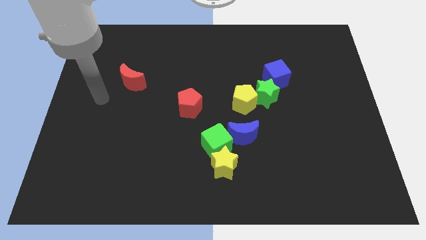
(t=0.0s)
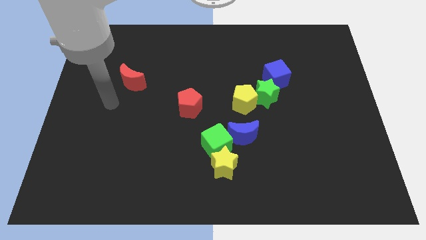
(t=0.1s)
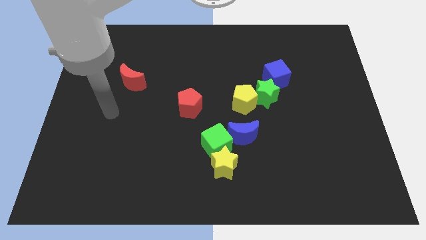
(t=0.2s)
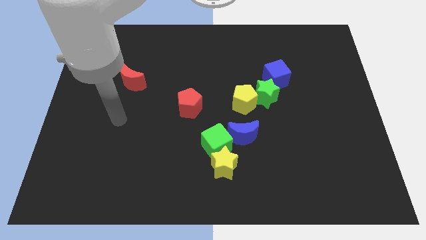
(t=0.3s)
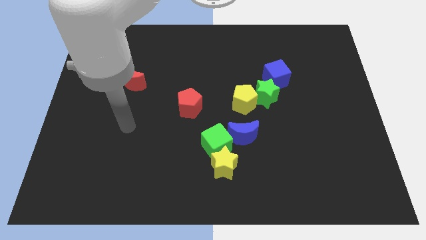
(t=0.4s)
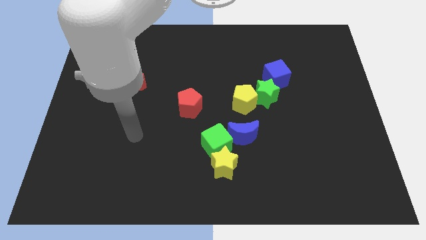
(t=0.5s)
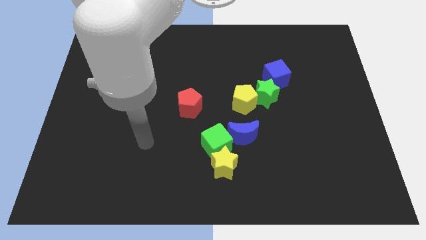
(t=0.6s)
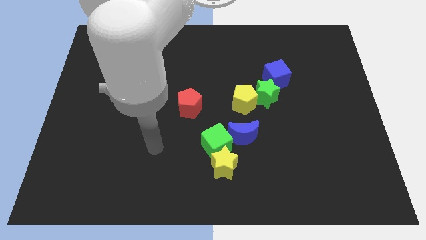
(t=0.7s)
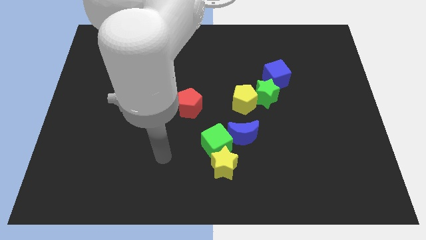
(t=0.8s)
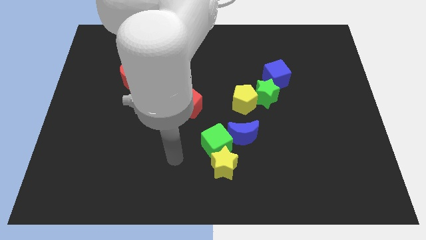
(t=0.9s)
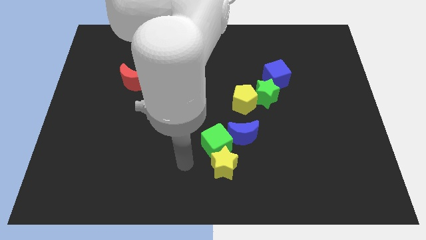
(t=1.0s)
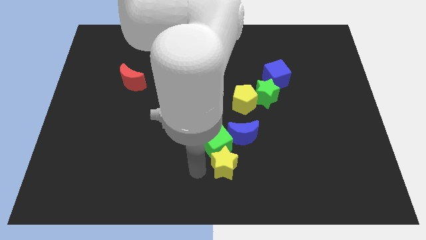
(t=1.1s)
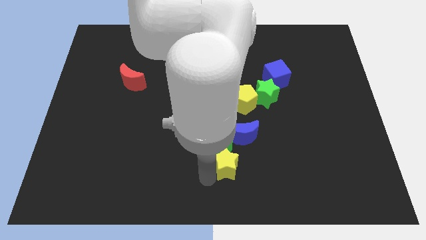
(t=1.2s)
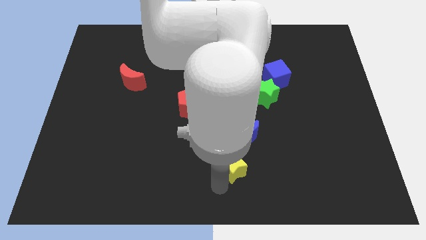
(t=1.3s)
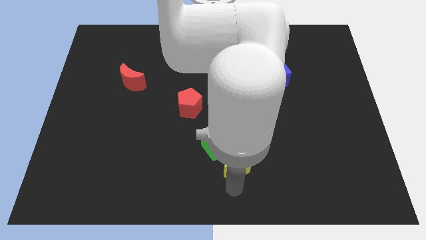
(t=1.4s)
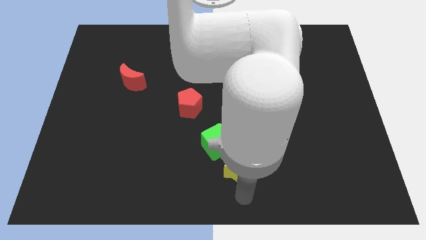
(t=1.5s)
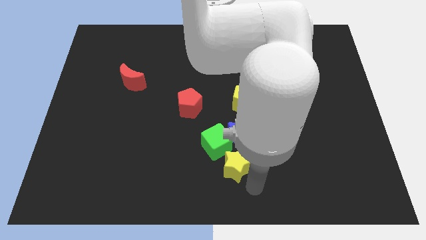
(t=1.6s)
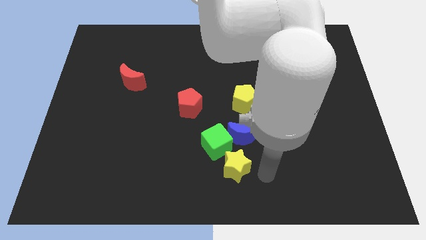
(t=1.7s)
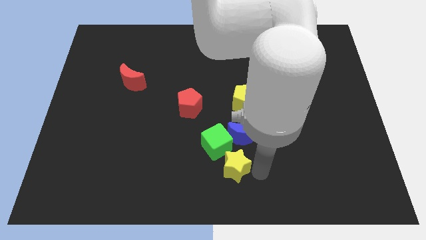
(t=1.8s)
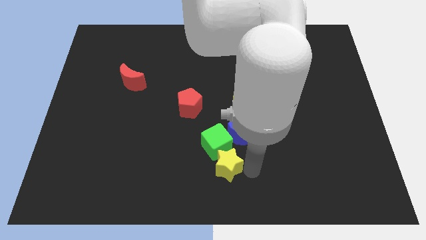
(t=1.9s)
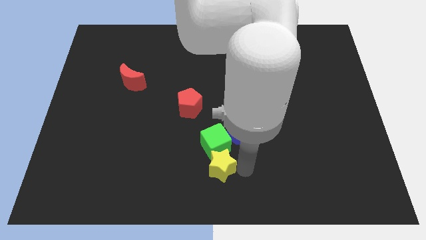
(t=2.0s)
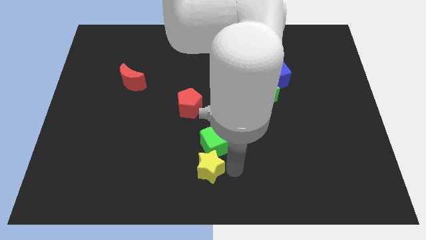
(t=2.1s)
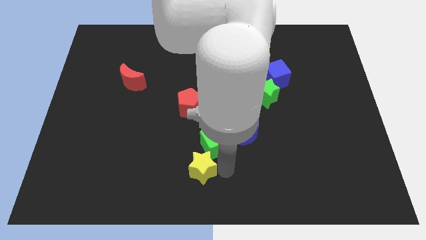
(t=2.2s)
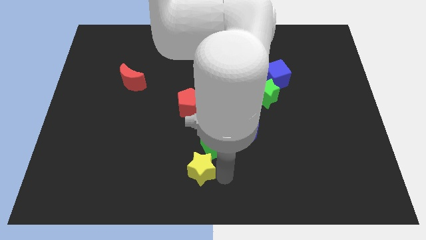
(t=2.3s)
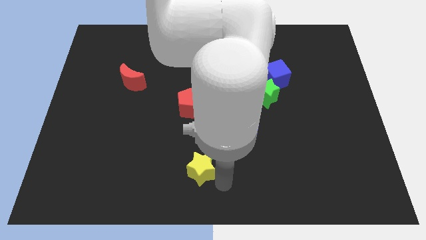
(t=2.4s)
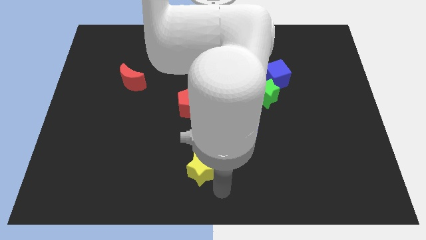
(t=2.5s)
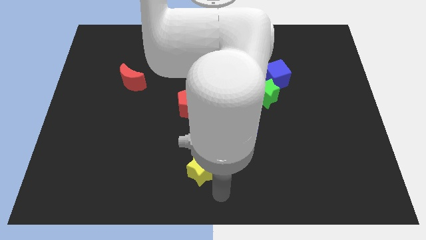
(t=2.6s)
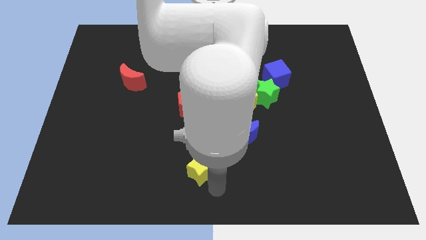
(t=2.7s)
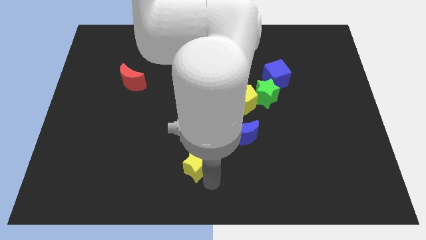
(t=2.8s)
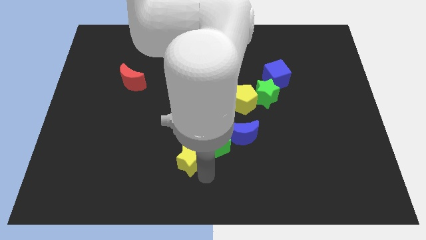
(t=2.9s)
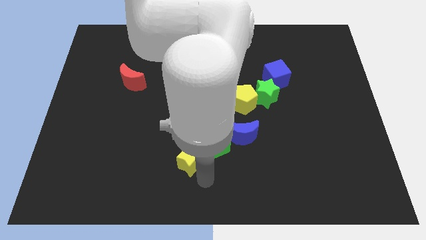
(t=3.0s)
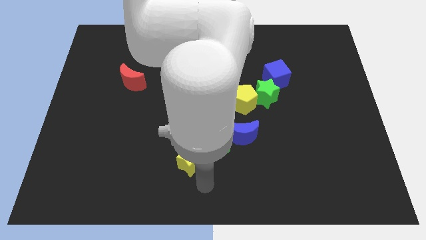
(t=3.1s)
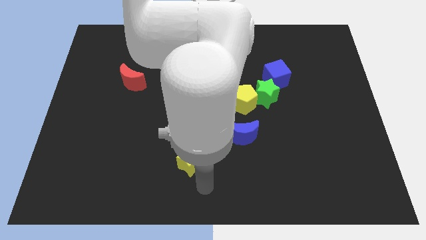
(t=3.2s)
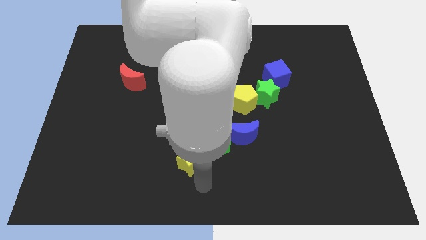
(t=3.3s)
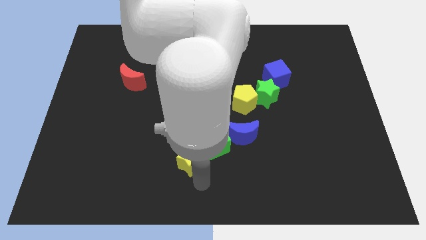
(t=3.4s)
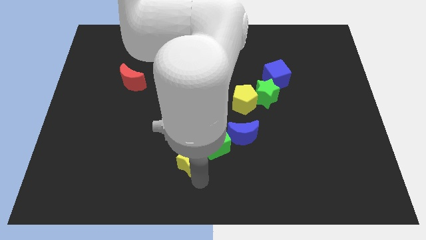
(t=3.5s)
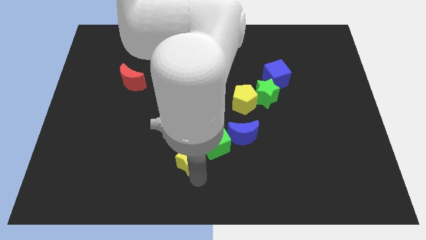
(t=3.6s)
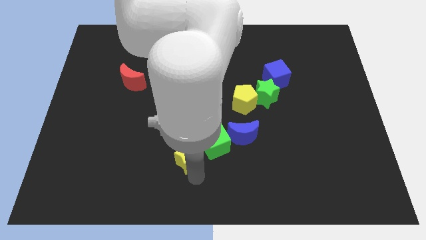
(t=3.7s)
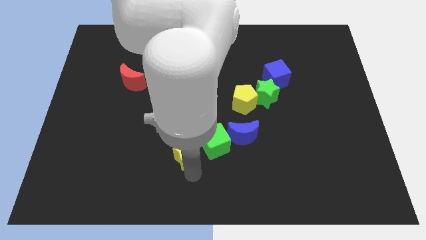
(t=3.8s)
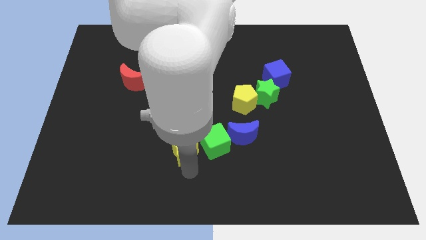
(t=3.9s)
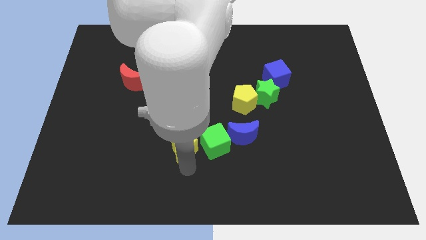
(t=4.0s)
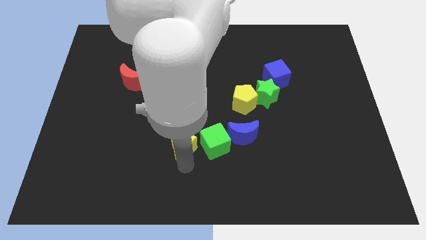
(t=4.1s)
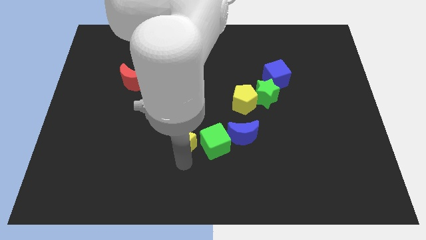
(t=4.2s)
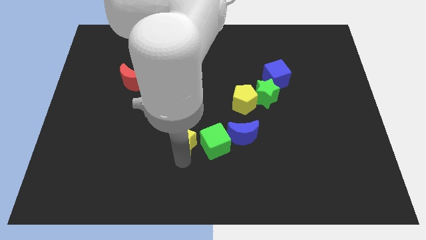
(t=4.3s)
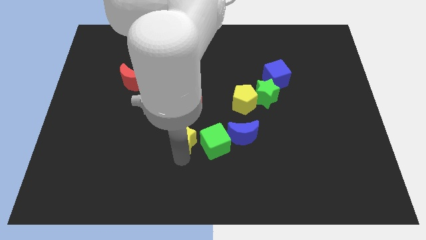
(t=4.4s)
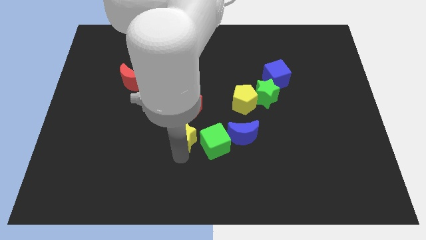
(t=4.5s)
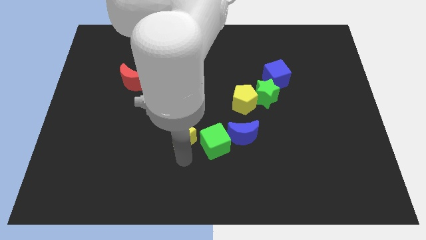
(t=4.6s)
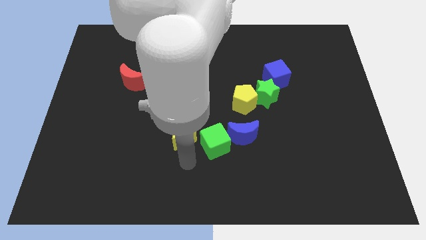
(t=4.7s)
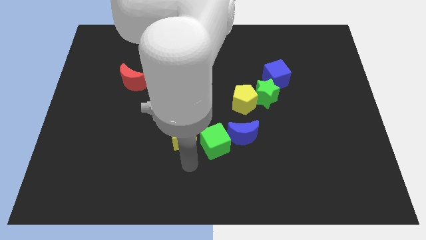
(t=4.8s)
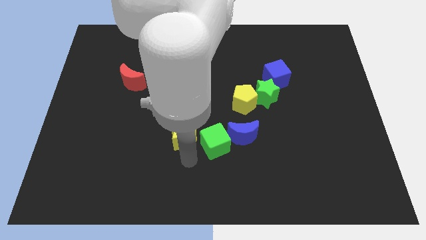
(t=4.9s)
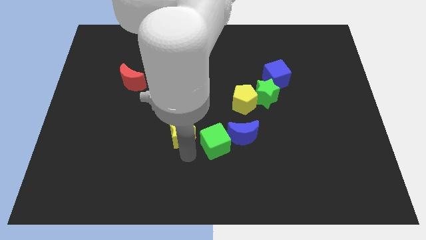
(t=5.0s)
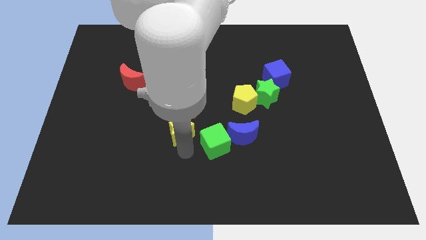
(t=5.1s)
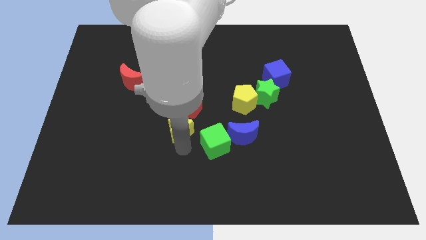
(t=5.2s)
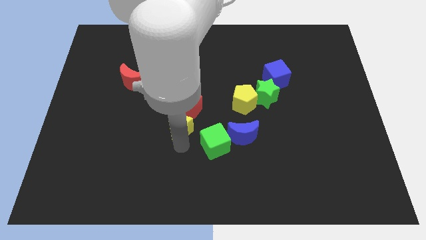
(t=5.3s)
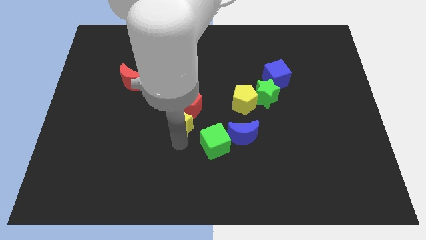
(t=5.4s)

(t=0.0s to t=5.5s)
slide the yellow star close to the red pentagon

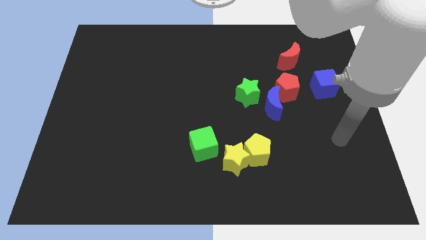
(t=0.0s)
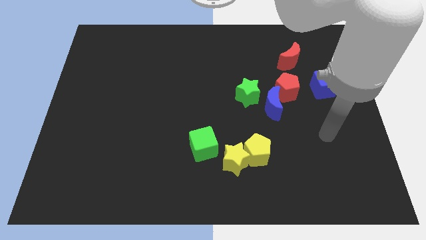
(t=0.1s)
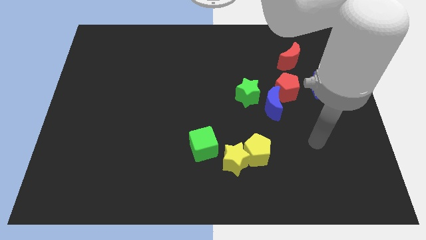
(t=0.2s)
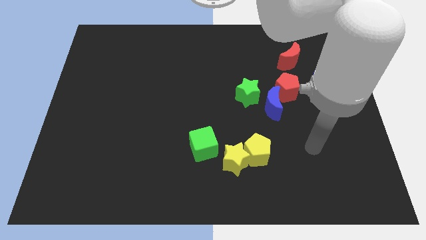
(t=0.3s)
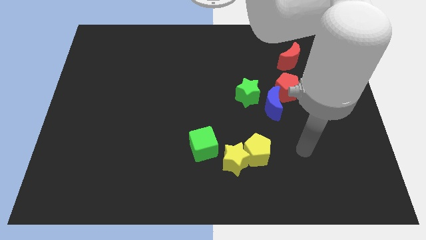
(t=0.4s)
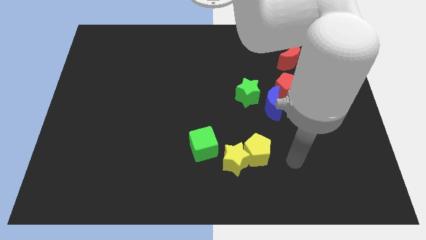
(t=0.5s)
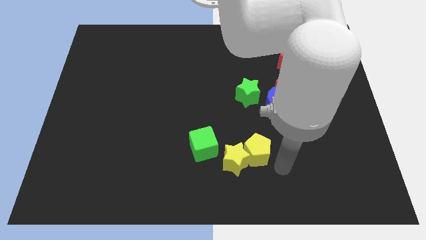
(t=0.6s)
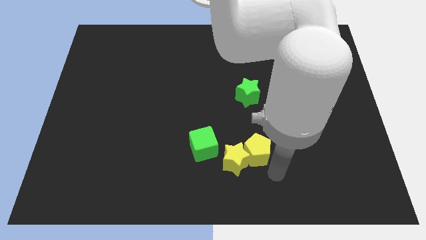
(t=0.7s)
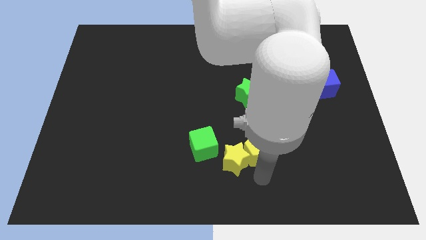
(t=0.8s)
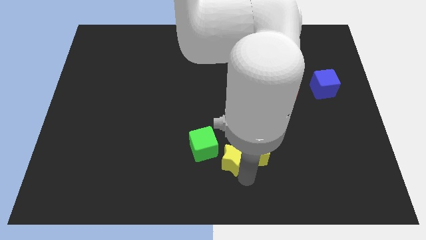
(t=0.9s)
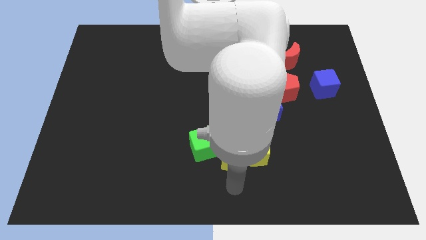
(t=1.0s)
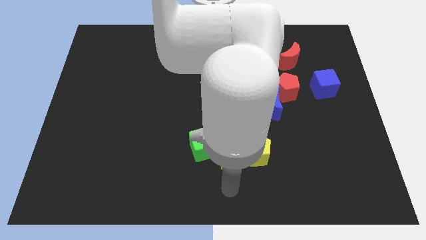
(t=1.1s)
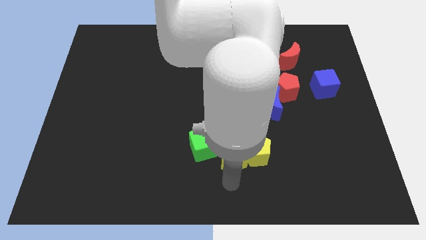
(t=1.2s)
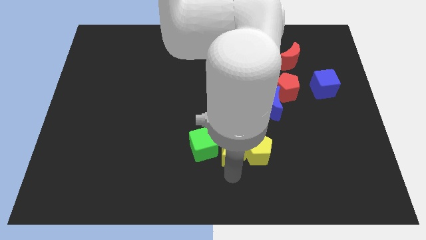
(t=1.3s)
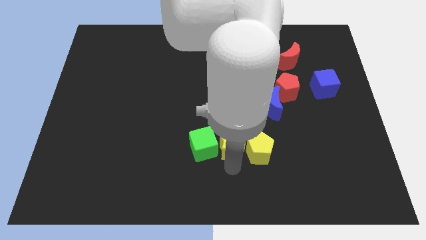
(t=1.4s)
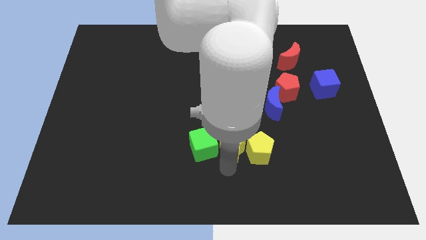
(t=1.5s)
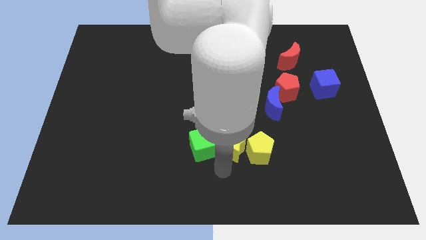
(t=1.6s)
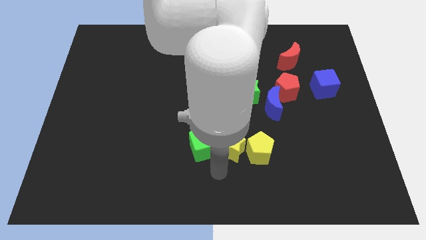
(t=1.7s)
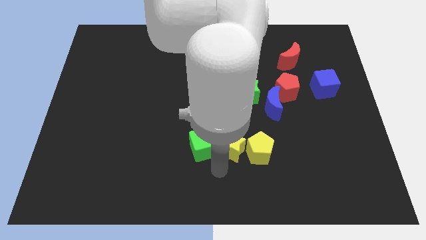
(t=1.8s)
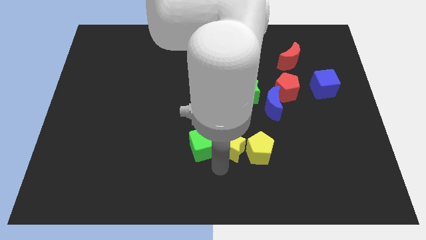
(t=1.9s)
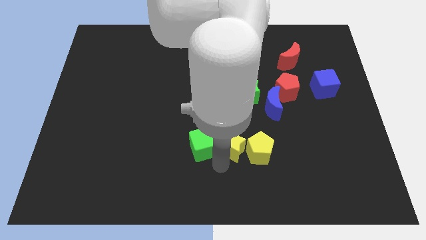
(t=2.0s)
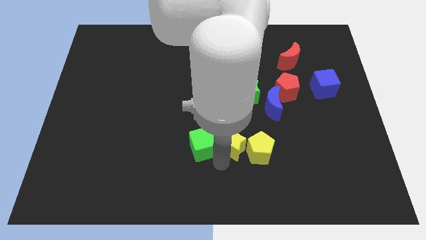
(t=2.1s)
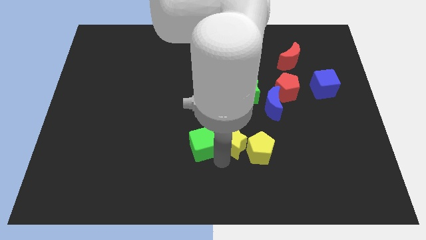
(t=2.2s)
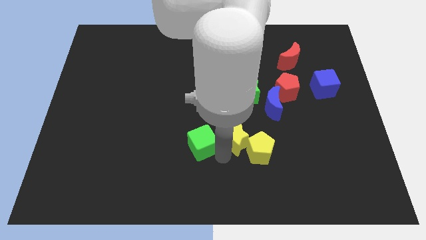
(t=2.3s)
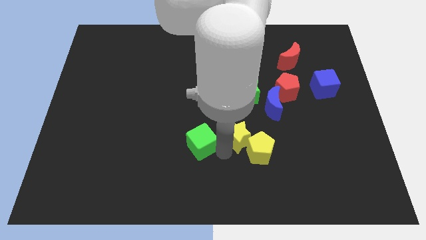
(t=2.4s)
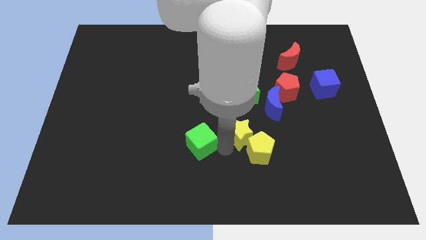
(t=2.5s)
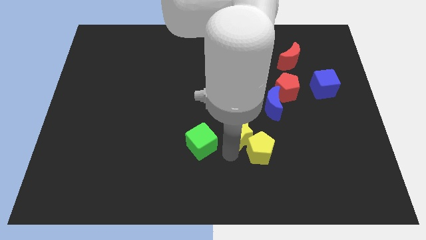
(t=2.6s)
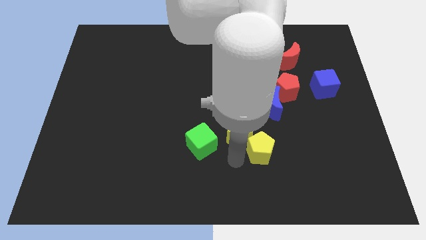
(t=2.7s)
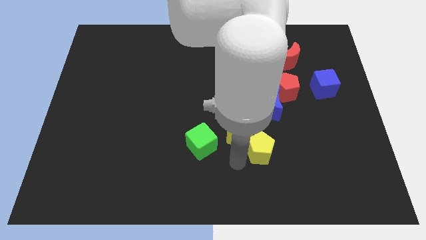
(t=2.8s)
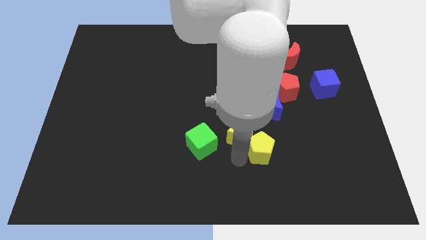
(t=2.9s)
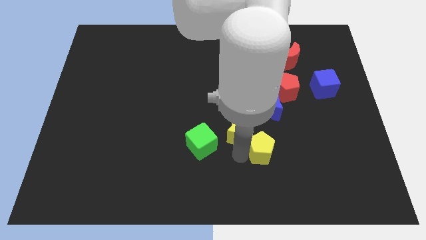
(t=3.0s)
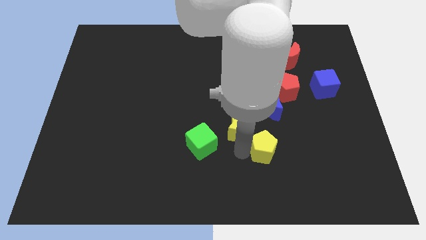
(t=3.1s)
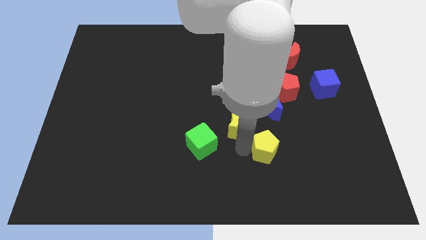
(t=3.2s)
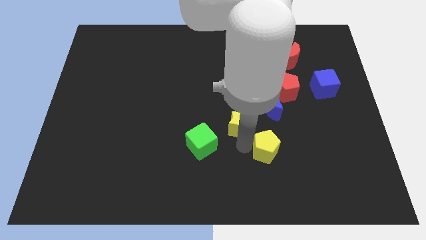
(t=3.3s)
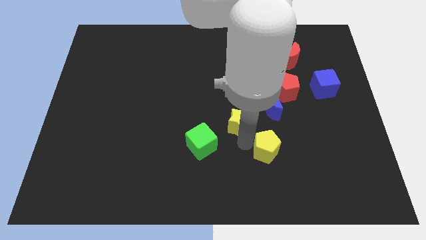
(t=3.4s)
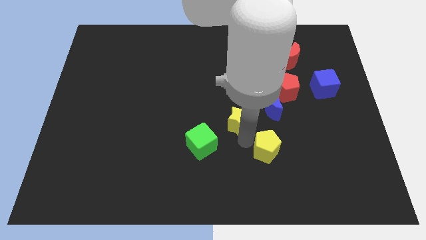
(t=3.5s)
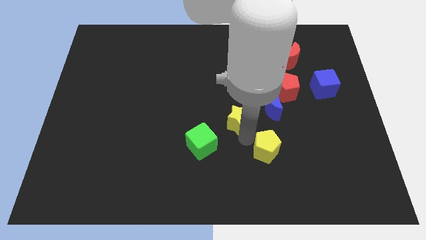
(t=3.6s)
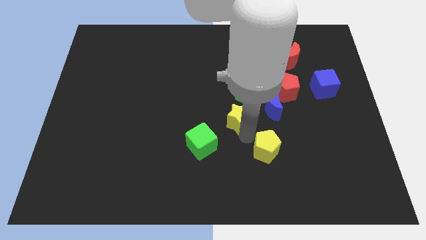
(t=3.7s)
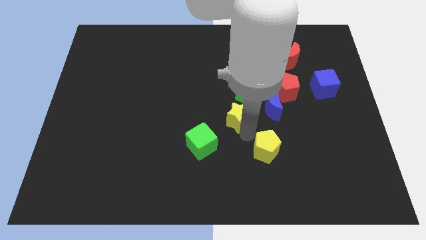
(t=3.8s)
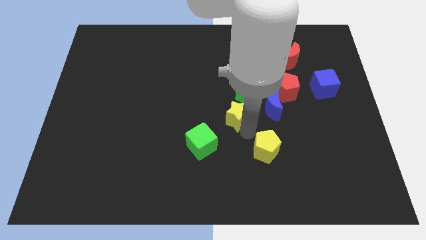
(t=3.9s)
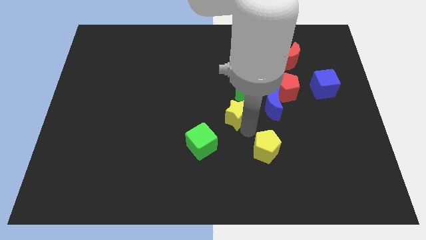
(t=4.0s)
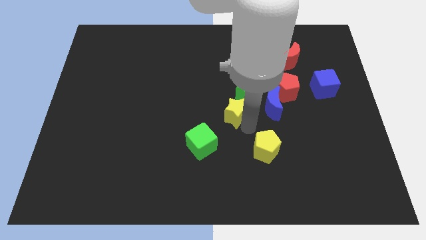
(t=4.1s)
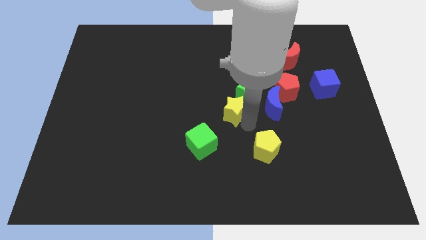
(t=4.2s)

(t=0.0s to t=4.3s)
push the yellow star close to the green star
